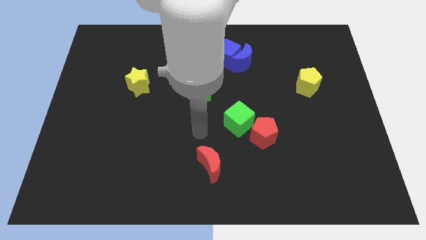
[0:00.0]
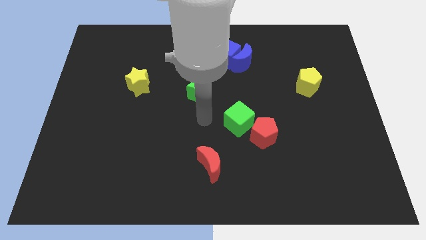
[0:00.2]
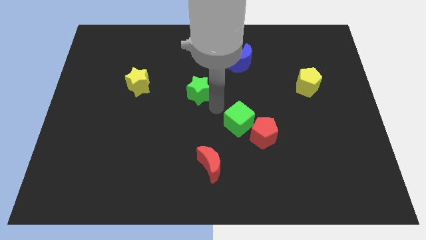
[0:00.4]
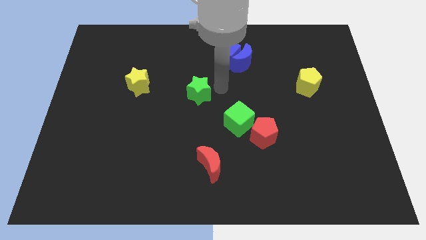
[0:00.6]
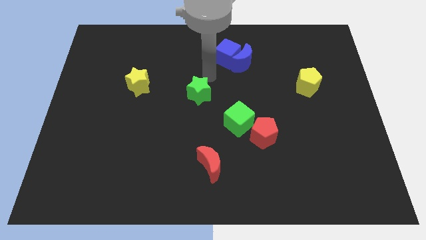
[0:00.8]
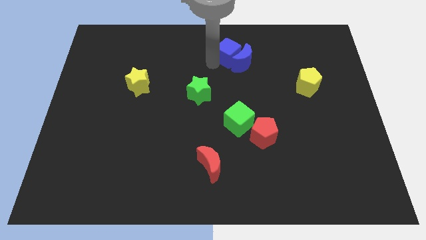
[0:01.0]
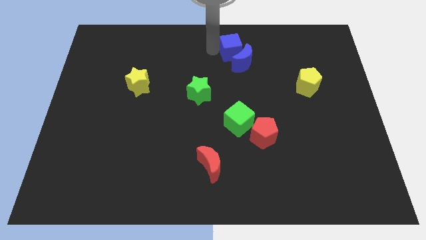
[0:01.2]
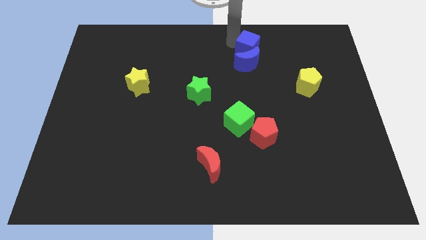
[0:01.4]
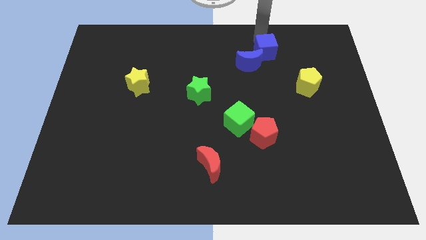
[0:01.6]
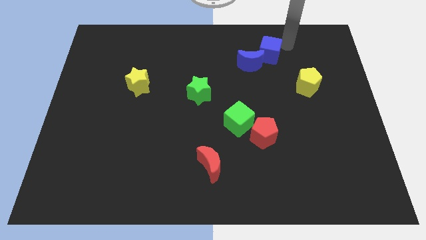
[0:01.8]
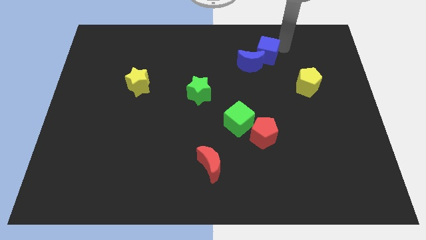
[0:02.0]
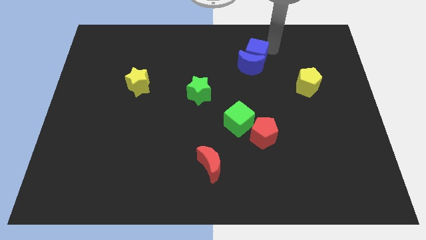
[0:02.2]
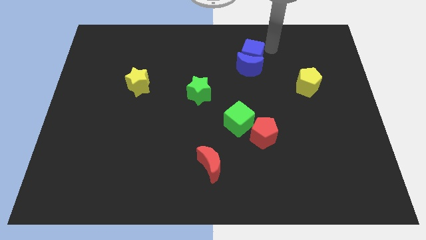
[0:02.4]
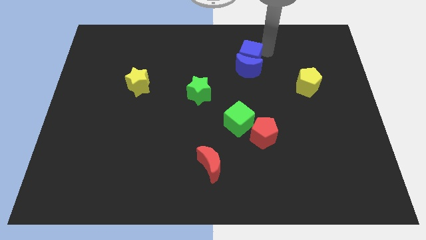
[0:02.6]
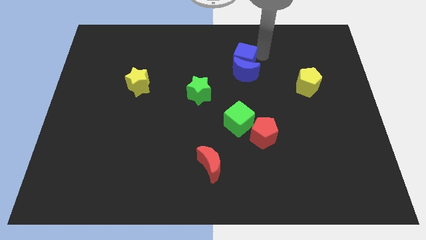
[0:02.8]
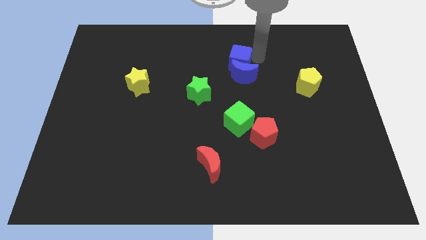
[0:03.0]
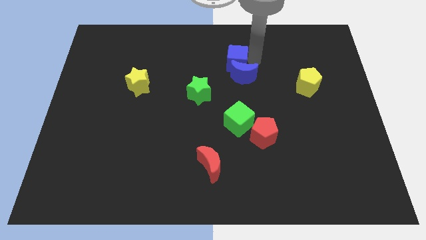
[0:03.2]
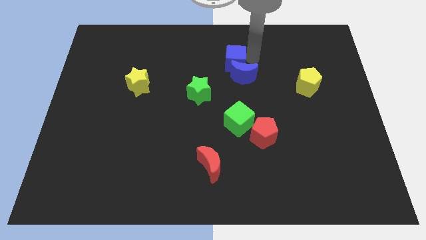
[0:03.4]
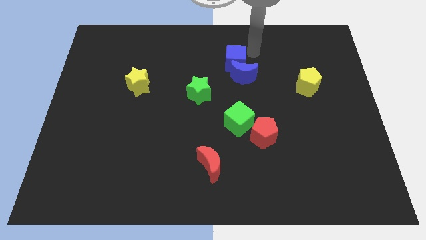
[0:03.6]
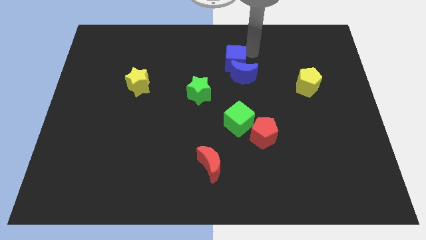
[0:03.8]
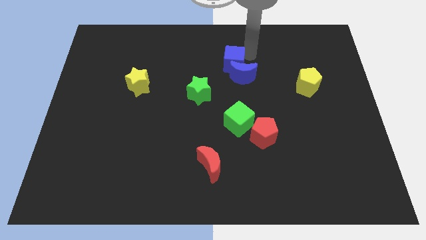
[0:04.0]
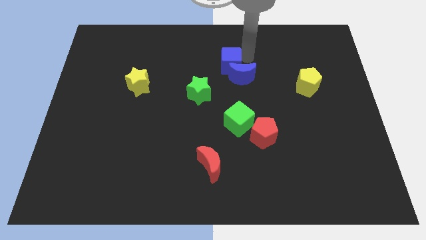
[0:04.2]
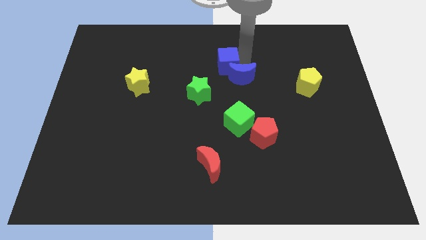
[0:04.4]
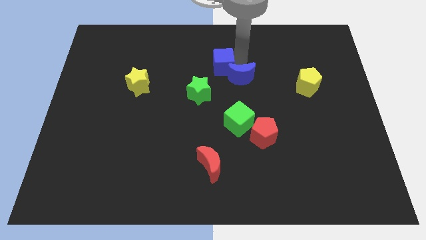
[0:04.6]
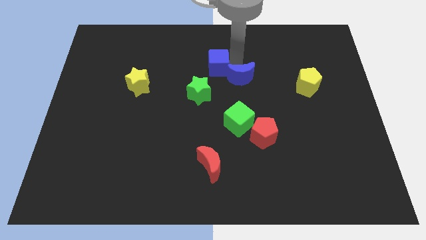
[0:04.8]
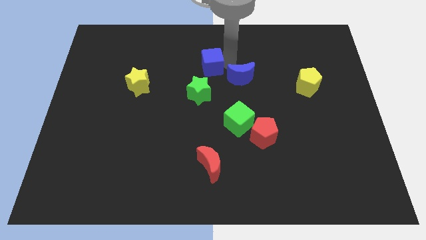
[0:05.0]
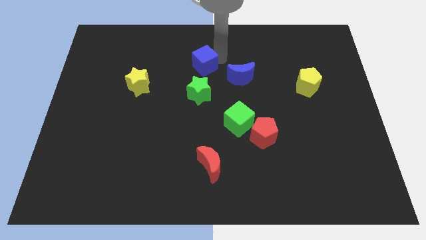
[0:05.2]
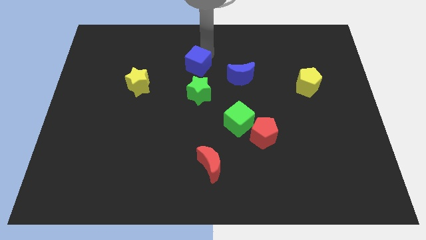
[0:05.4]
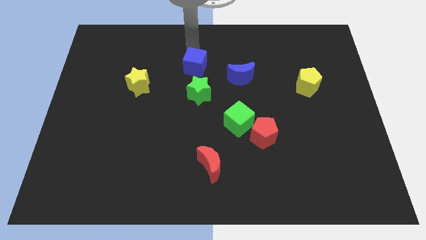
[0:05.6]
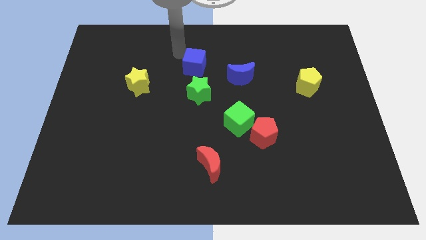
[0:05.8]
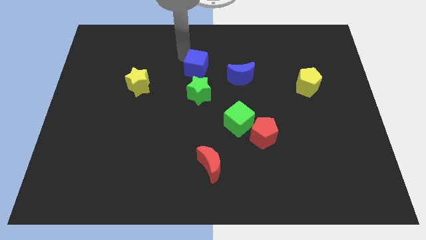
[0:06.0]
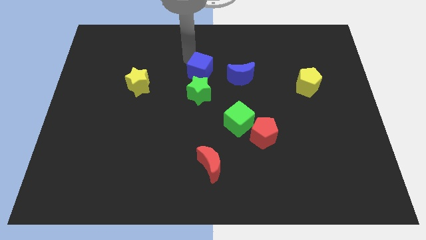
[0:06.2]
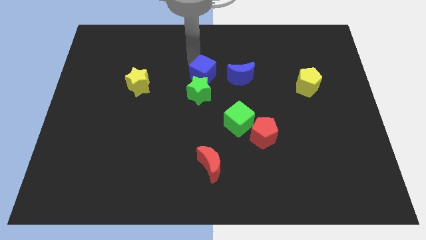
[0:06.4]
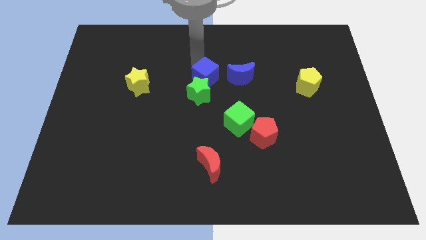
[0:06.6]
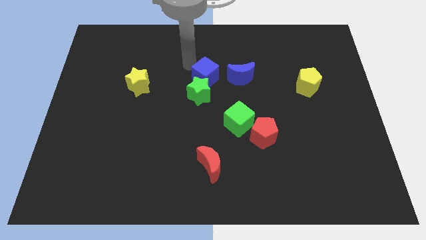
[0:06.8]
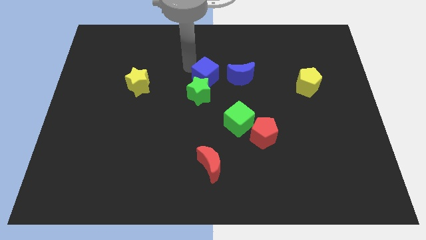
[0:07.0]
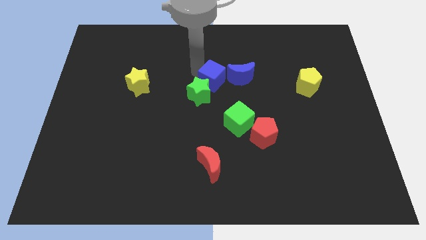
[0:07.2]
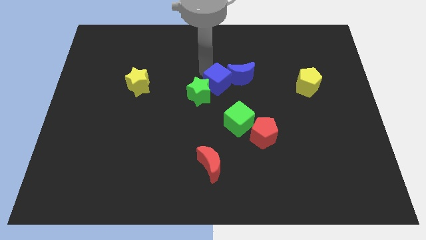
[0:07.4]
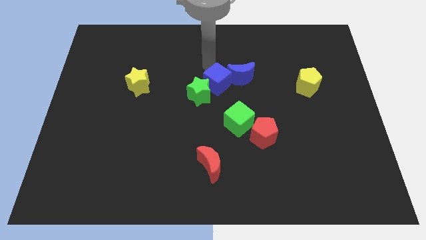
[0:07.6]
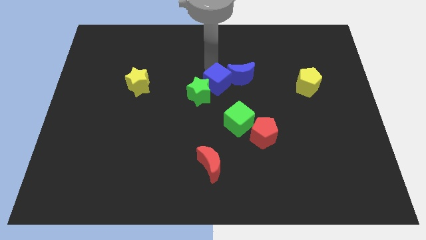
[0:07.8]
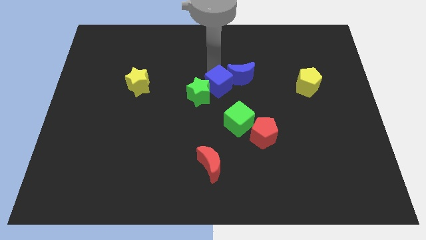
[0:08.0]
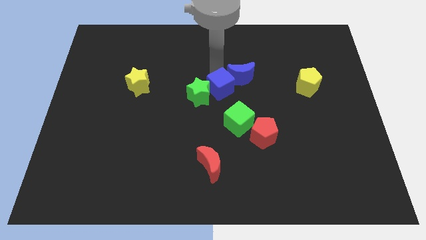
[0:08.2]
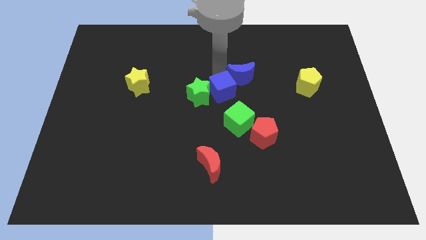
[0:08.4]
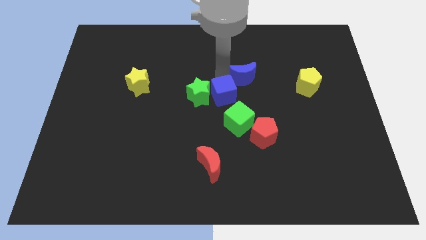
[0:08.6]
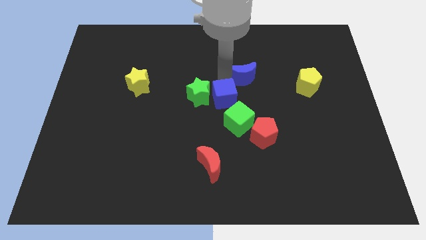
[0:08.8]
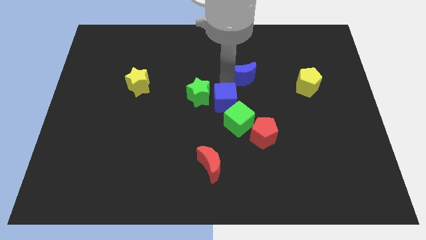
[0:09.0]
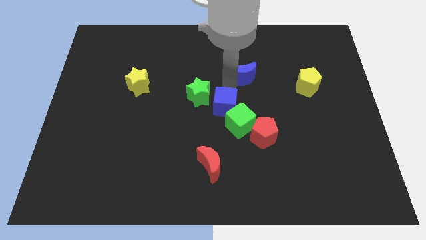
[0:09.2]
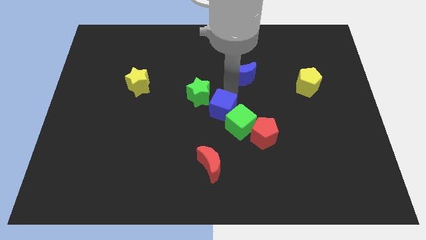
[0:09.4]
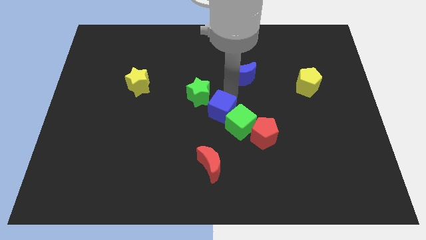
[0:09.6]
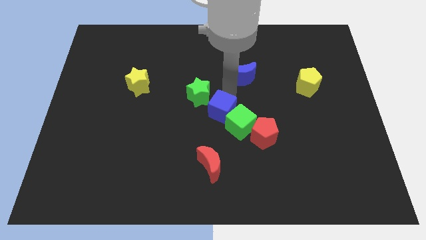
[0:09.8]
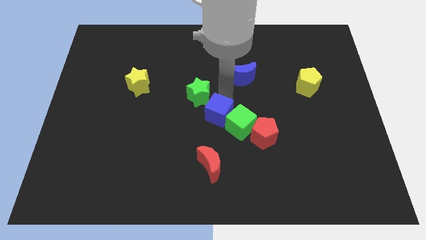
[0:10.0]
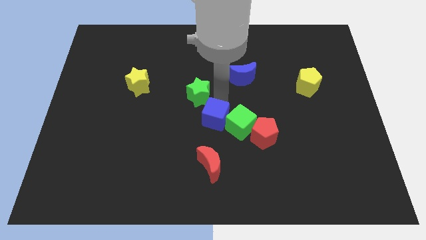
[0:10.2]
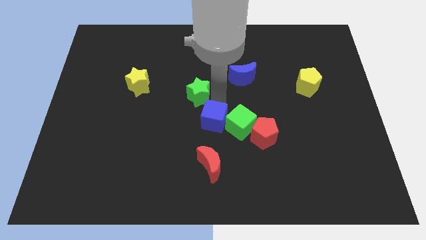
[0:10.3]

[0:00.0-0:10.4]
push the blue cube to the left of the red pentagon

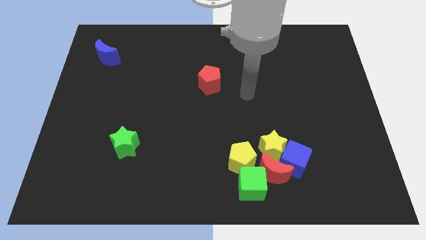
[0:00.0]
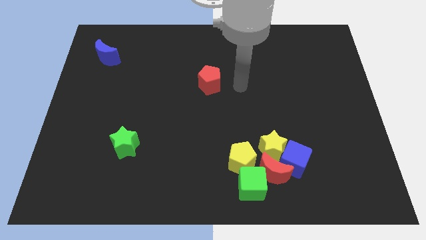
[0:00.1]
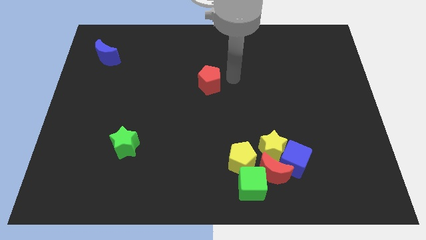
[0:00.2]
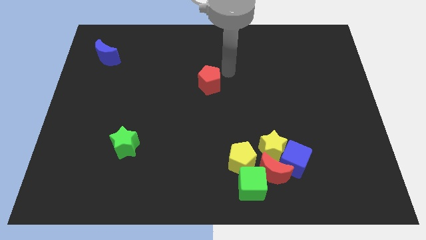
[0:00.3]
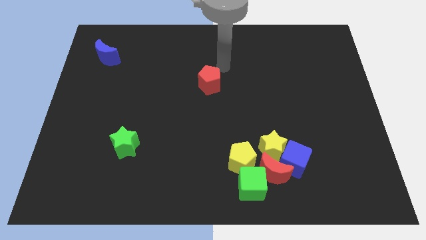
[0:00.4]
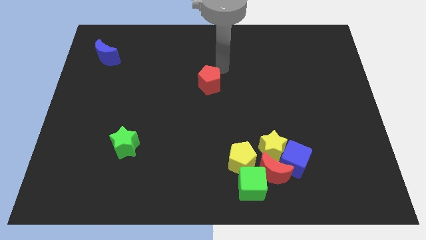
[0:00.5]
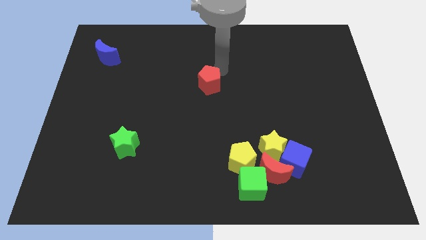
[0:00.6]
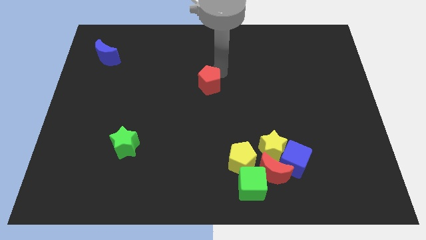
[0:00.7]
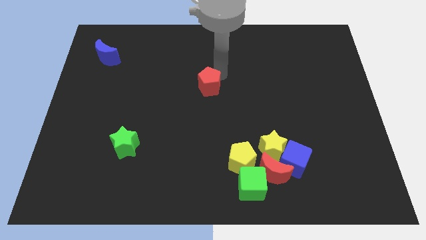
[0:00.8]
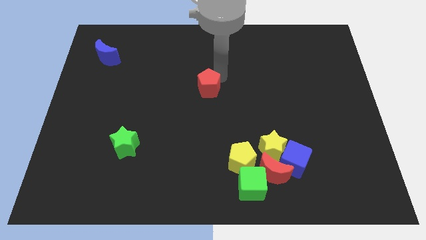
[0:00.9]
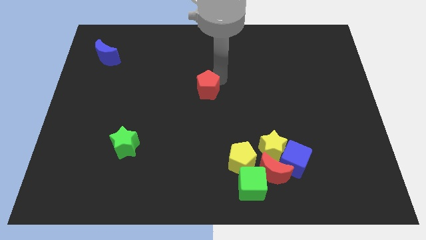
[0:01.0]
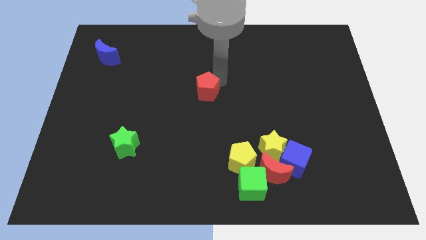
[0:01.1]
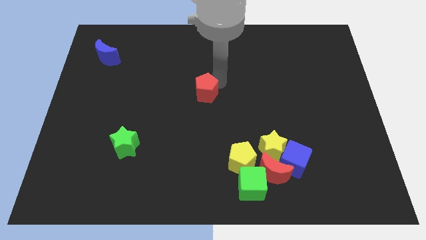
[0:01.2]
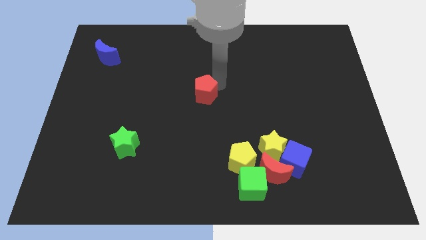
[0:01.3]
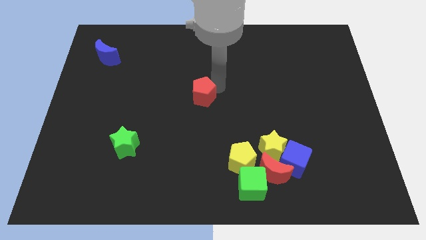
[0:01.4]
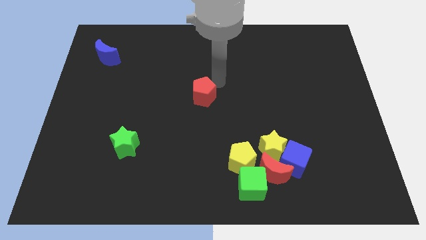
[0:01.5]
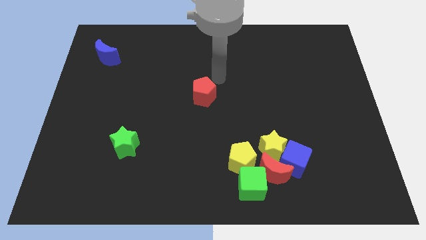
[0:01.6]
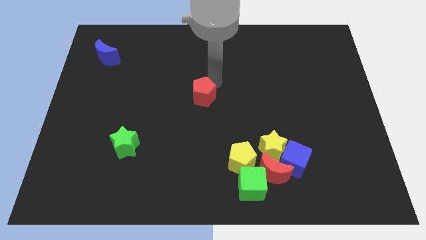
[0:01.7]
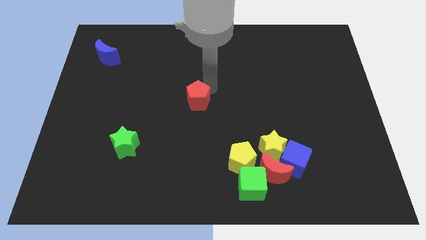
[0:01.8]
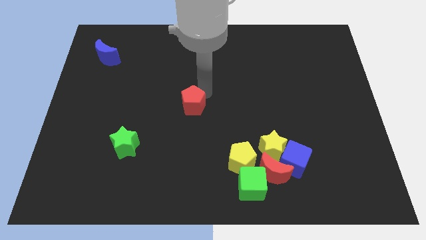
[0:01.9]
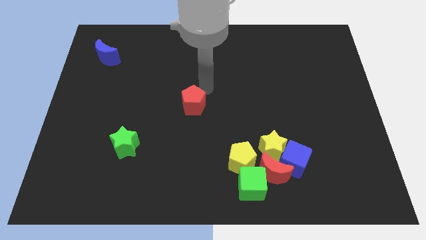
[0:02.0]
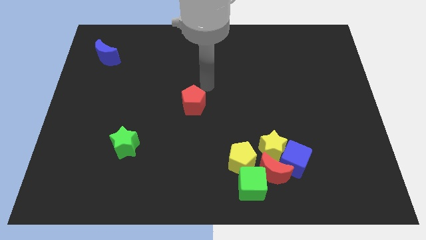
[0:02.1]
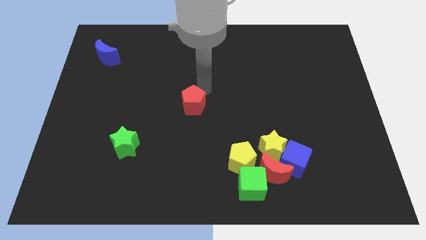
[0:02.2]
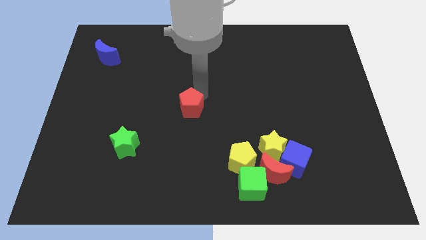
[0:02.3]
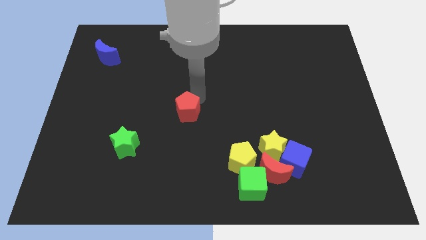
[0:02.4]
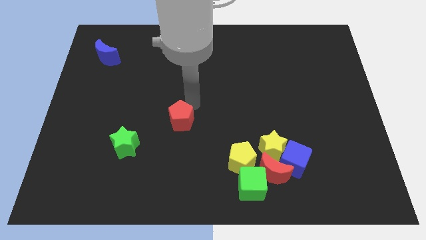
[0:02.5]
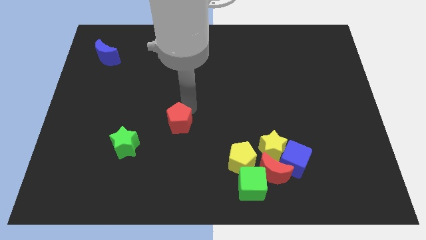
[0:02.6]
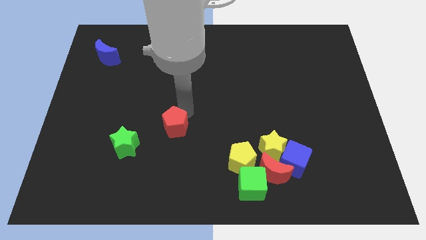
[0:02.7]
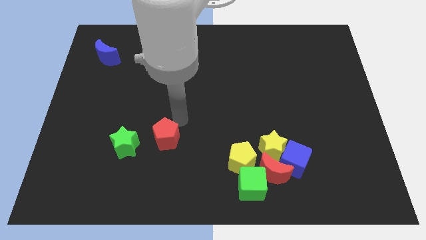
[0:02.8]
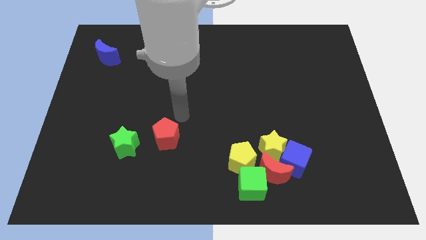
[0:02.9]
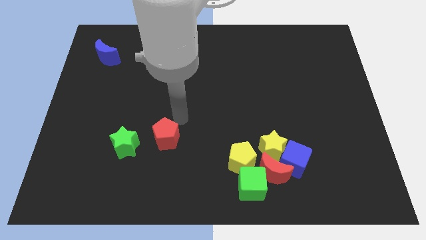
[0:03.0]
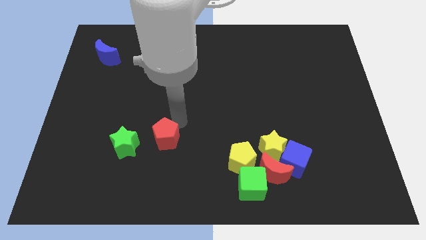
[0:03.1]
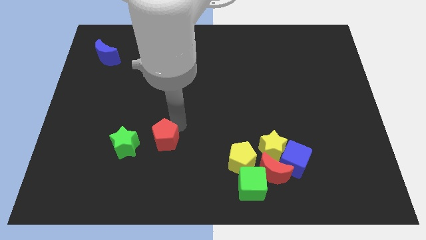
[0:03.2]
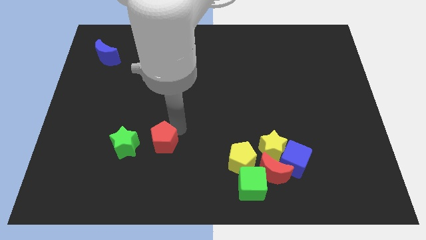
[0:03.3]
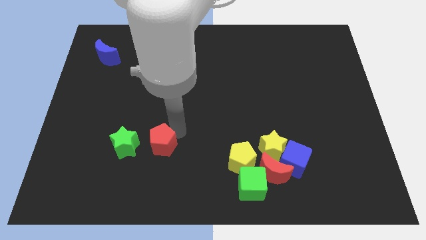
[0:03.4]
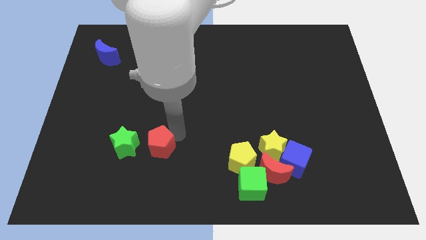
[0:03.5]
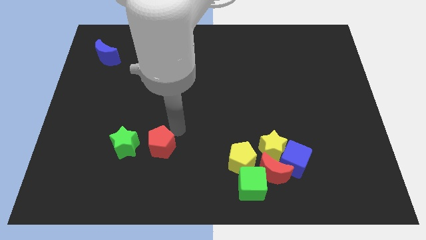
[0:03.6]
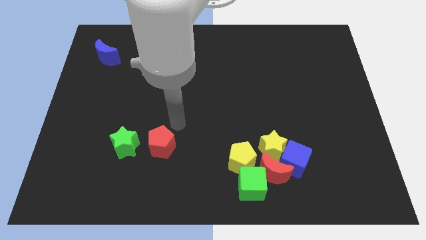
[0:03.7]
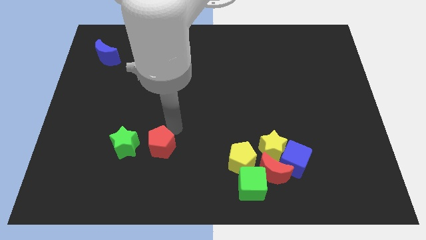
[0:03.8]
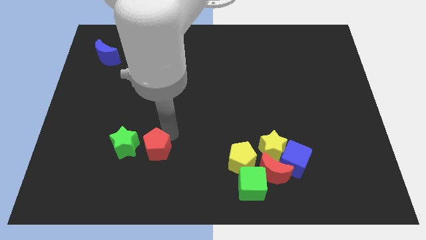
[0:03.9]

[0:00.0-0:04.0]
put the red pentagon to the bottom right of the green star
